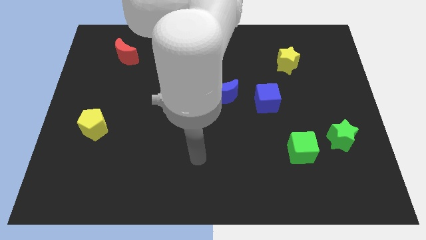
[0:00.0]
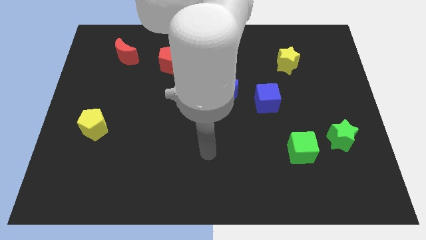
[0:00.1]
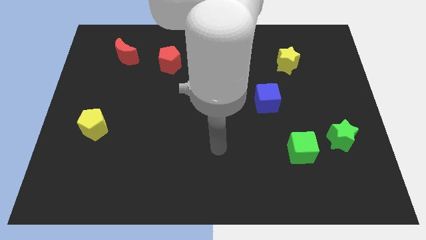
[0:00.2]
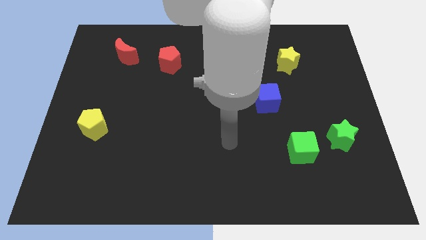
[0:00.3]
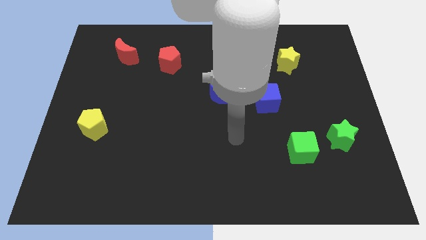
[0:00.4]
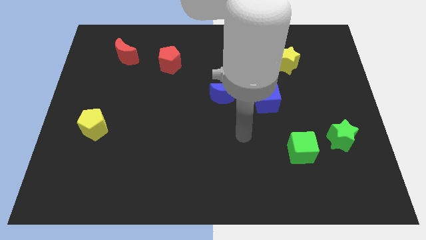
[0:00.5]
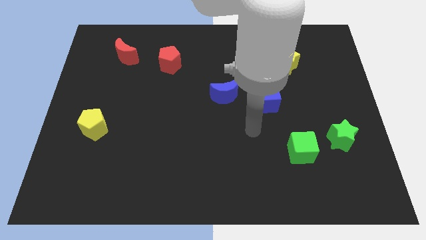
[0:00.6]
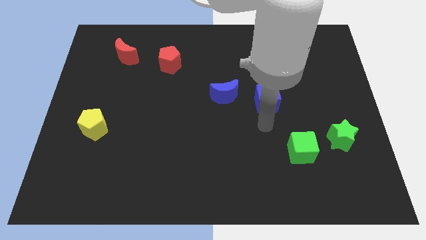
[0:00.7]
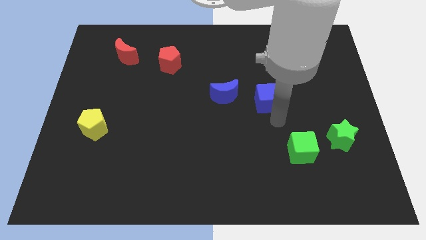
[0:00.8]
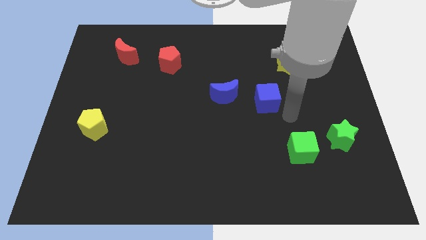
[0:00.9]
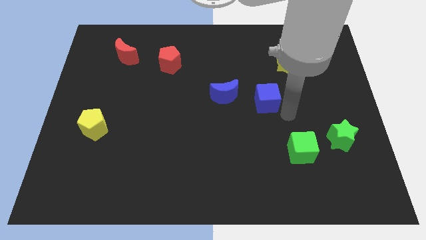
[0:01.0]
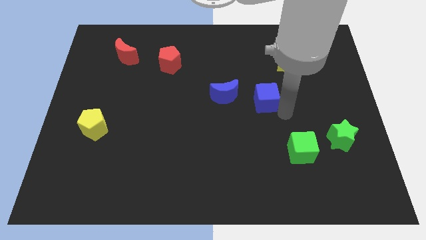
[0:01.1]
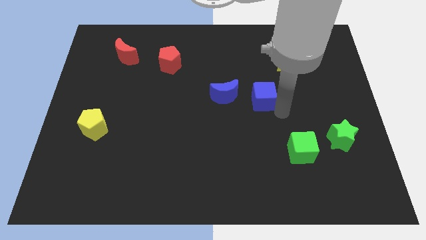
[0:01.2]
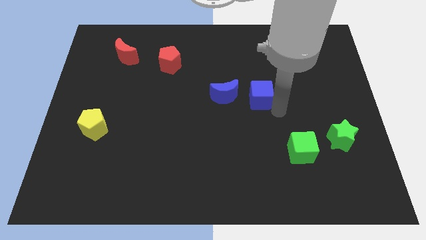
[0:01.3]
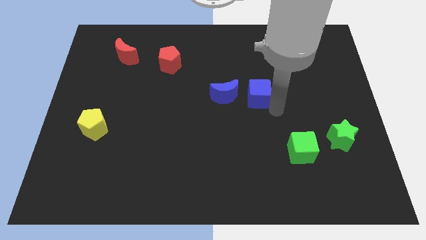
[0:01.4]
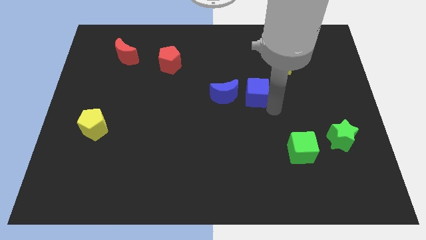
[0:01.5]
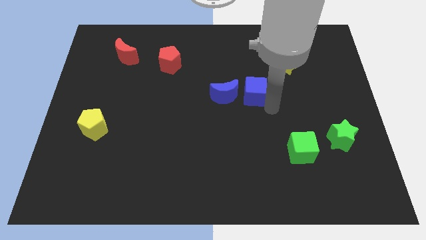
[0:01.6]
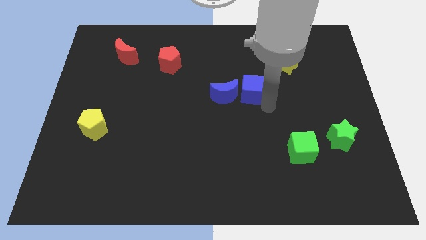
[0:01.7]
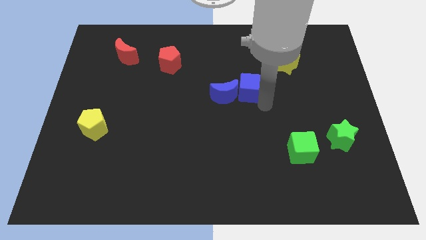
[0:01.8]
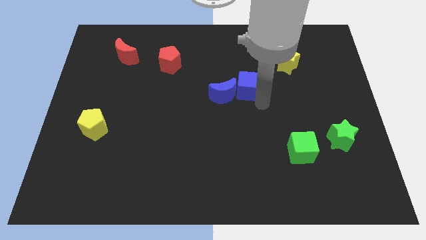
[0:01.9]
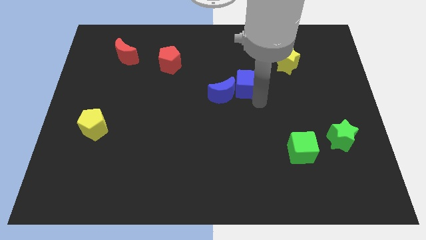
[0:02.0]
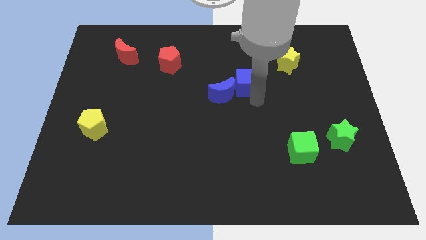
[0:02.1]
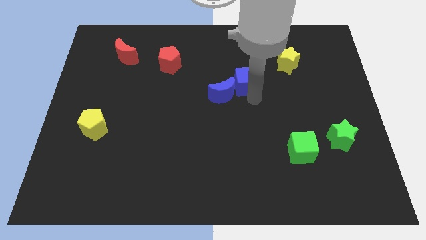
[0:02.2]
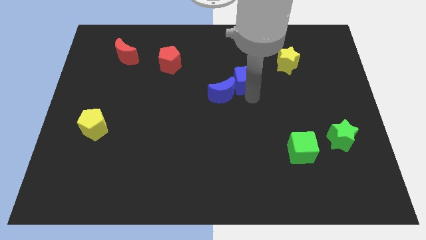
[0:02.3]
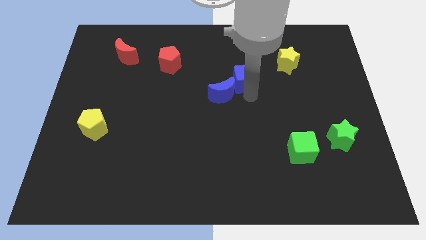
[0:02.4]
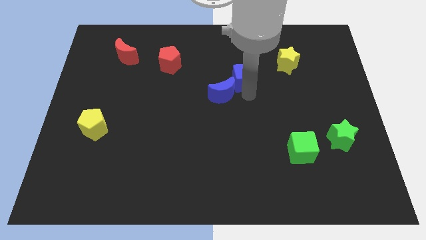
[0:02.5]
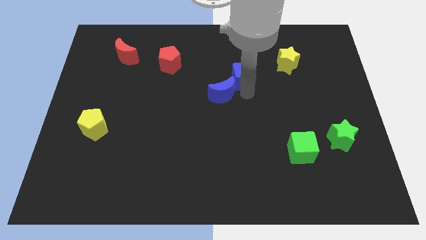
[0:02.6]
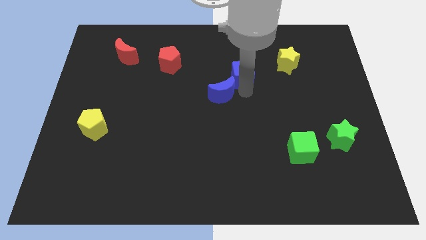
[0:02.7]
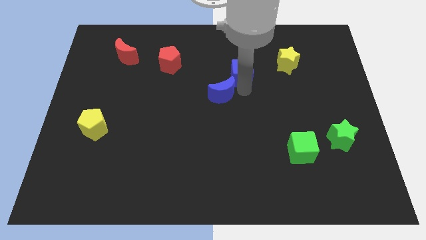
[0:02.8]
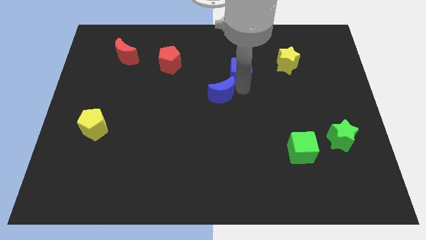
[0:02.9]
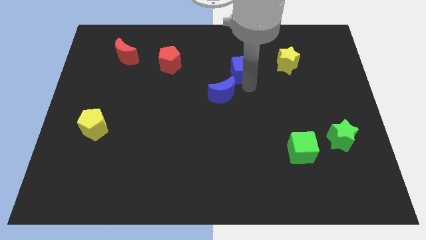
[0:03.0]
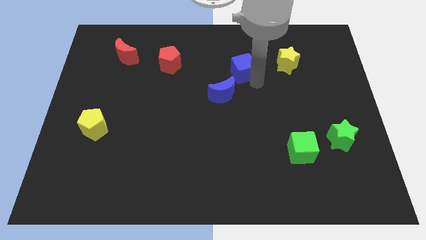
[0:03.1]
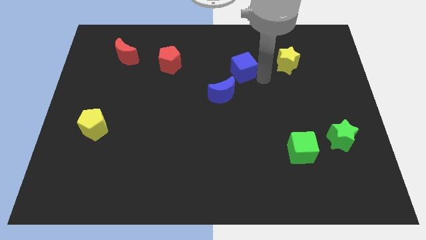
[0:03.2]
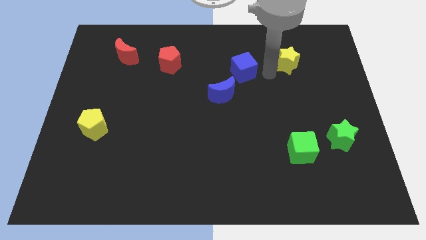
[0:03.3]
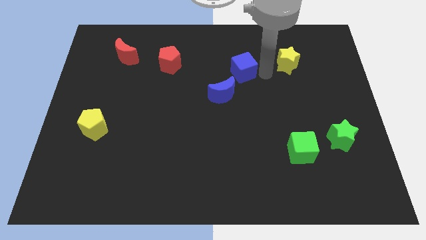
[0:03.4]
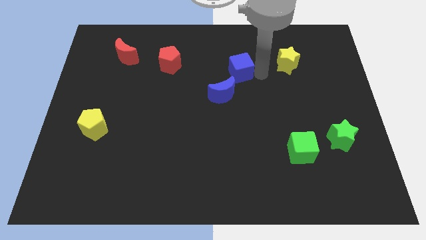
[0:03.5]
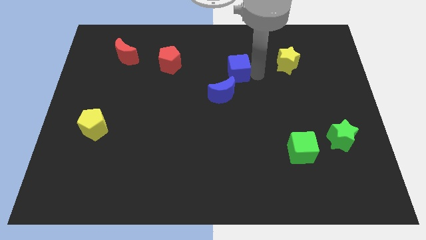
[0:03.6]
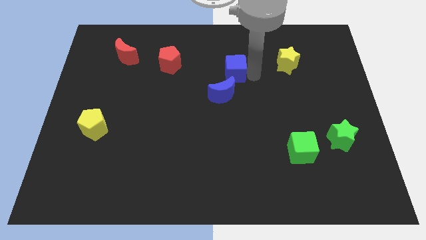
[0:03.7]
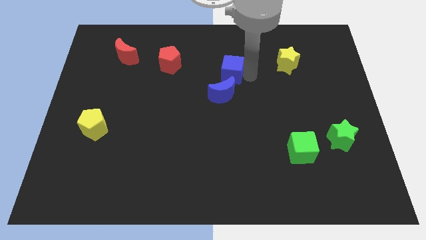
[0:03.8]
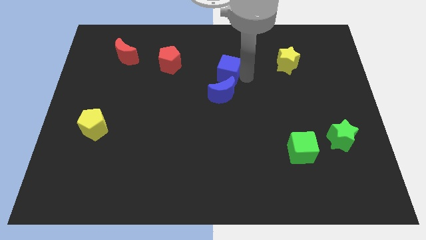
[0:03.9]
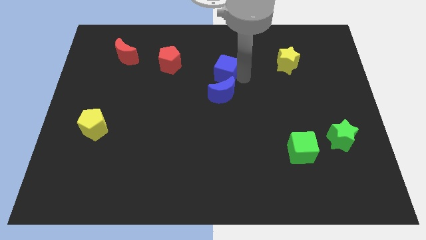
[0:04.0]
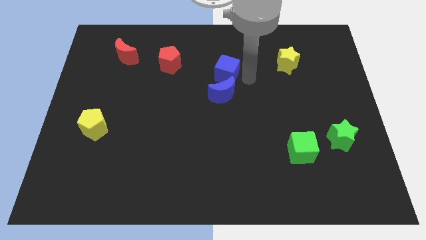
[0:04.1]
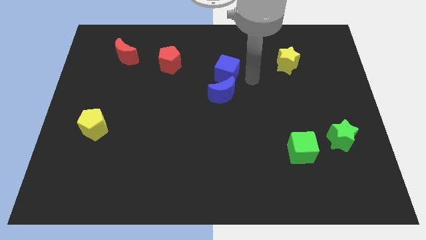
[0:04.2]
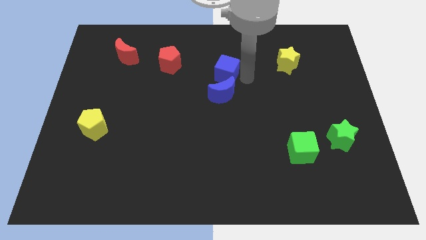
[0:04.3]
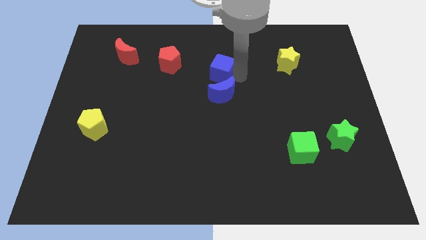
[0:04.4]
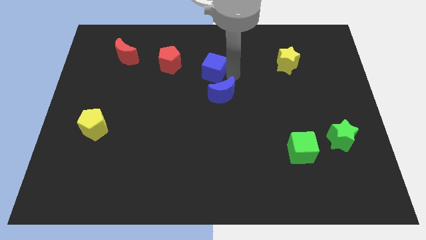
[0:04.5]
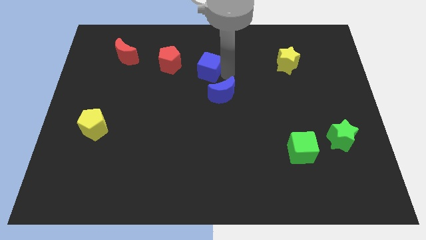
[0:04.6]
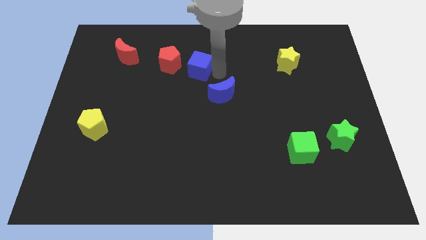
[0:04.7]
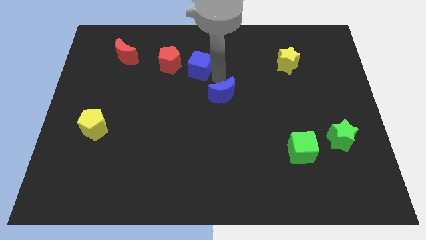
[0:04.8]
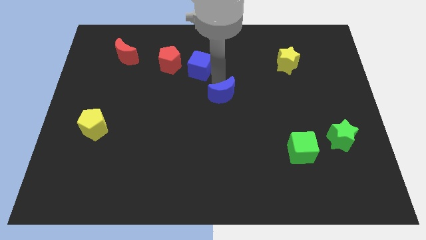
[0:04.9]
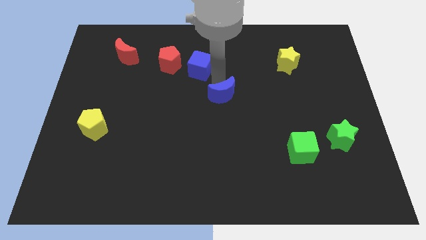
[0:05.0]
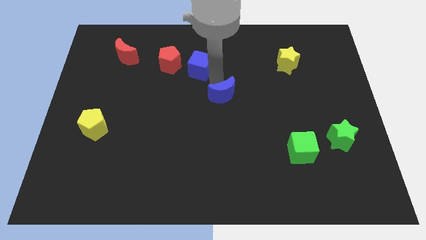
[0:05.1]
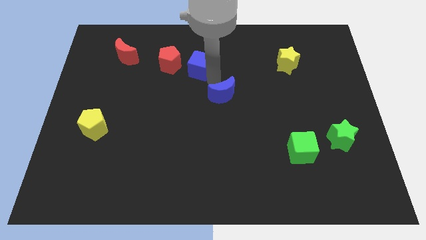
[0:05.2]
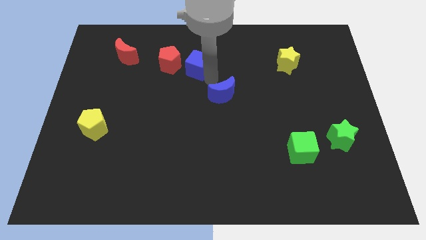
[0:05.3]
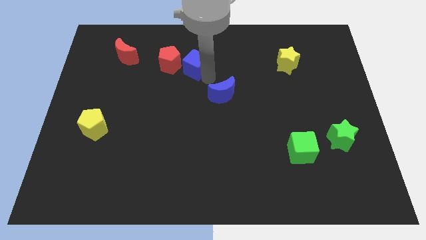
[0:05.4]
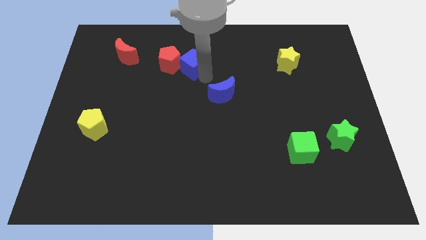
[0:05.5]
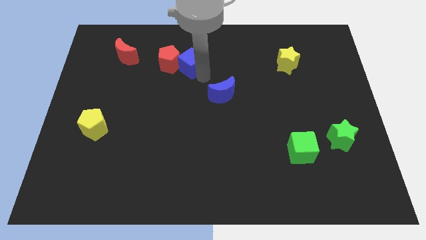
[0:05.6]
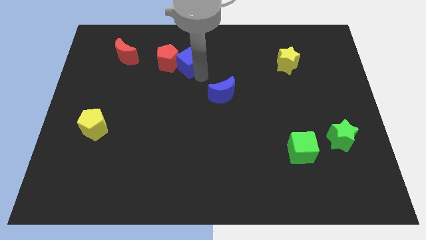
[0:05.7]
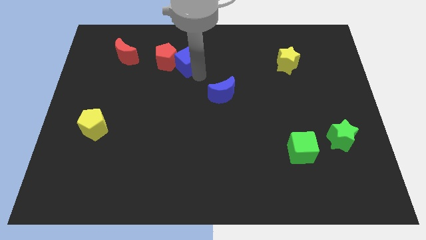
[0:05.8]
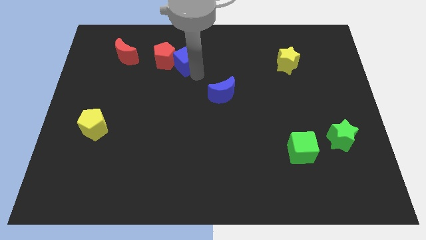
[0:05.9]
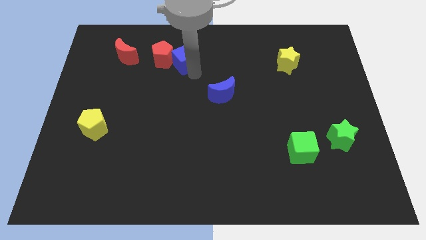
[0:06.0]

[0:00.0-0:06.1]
move the blue cube to the right of the red moon
